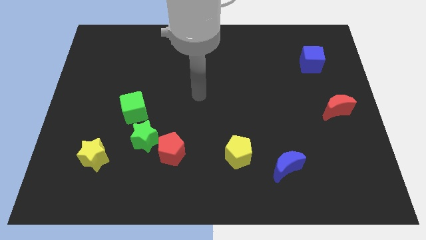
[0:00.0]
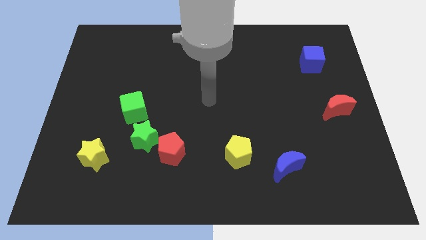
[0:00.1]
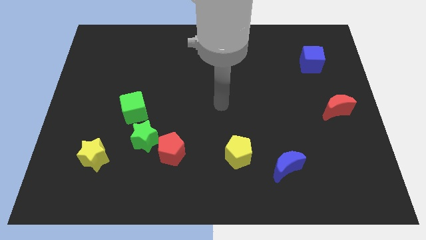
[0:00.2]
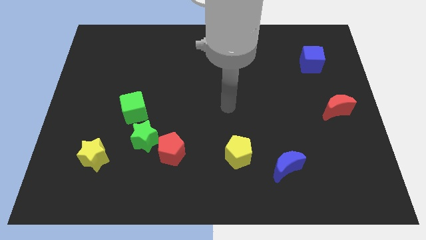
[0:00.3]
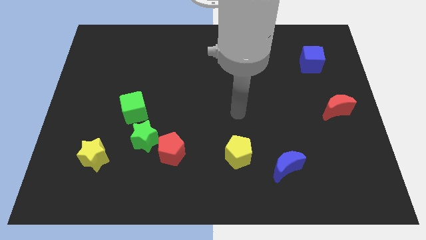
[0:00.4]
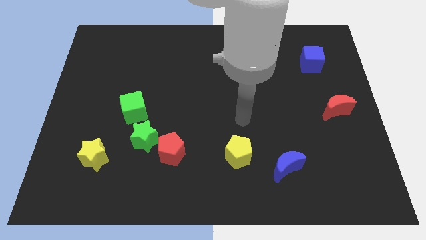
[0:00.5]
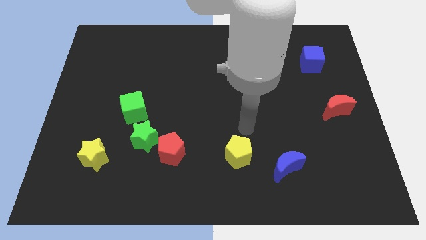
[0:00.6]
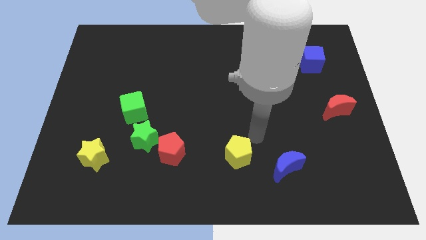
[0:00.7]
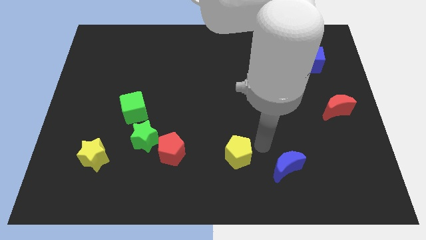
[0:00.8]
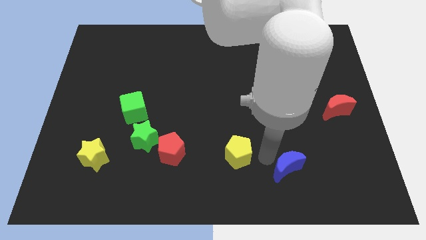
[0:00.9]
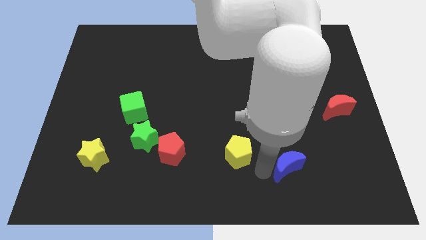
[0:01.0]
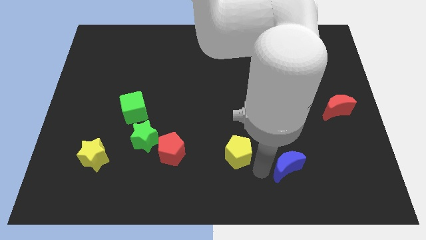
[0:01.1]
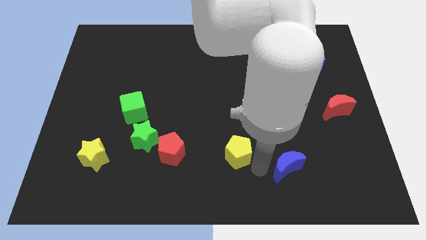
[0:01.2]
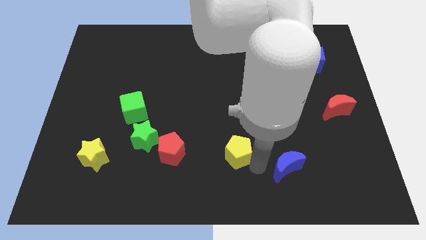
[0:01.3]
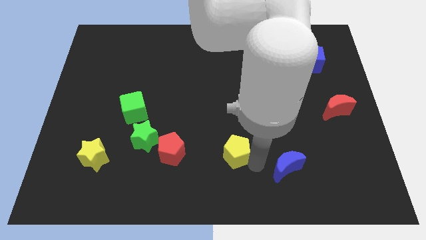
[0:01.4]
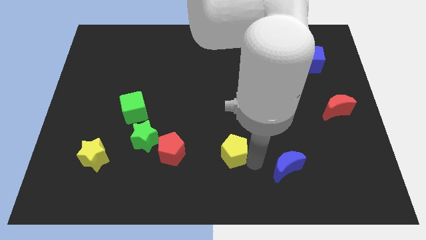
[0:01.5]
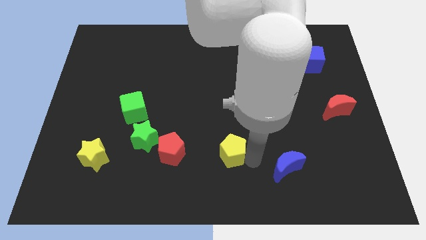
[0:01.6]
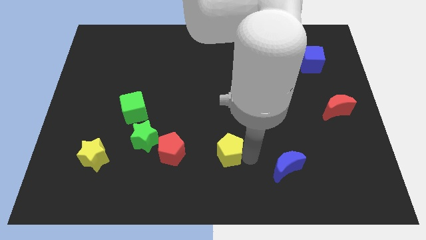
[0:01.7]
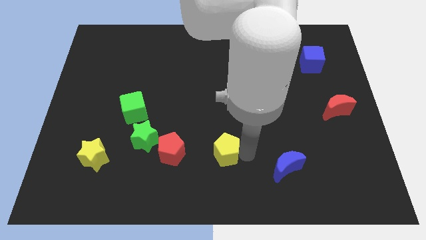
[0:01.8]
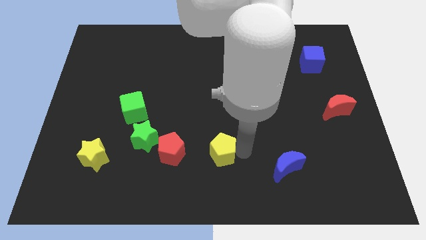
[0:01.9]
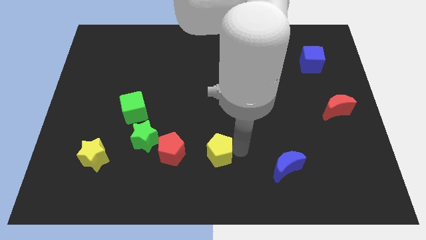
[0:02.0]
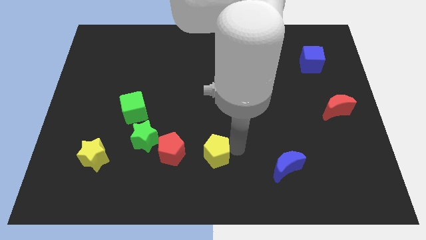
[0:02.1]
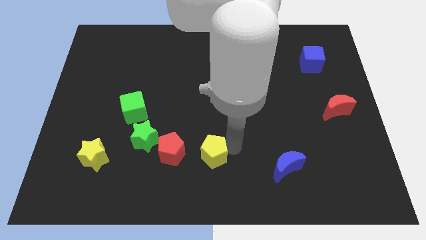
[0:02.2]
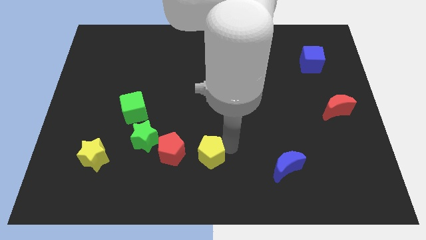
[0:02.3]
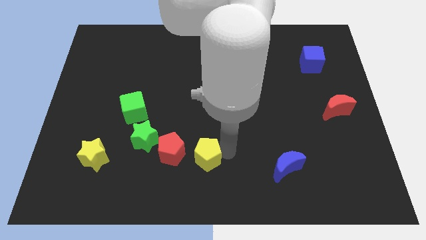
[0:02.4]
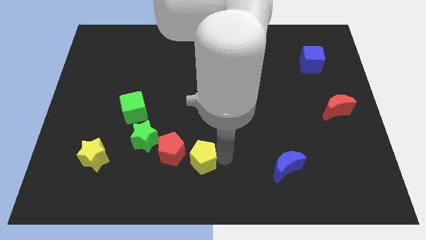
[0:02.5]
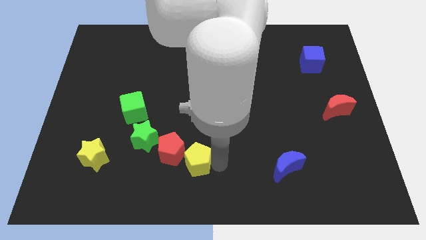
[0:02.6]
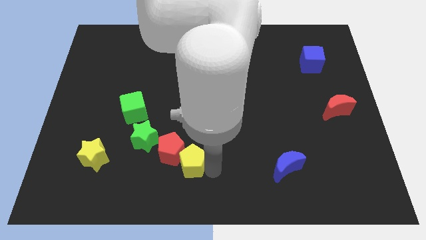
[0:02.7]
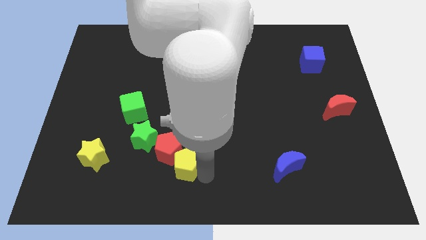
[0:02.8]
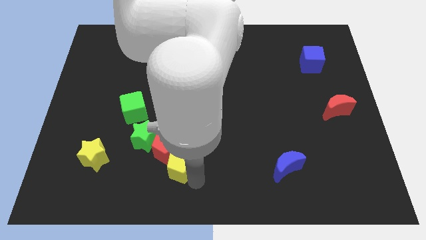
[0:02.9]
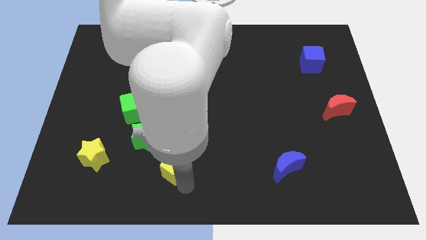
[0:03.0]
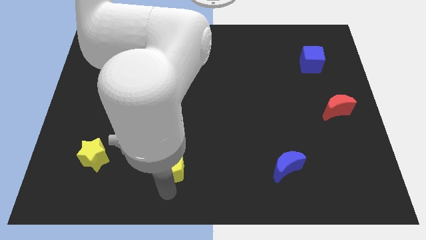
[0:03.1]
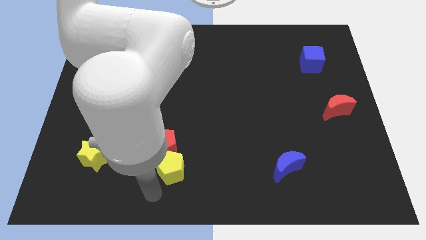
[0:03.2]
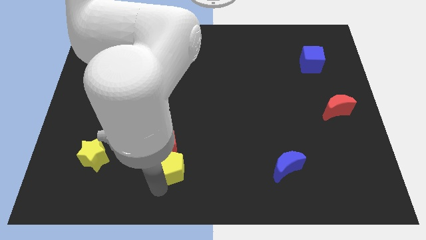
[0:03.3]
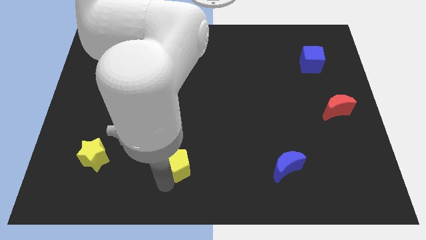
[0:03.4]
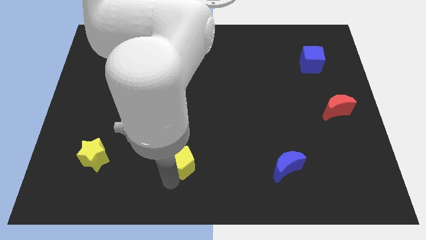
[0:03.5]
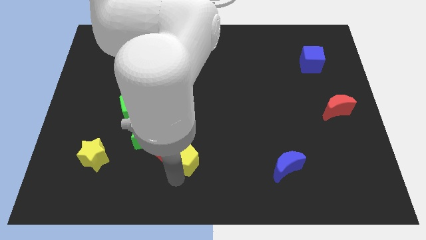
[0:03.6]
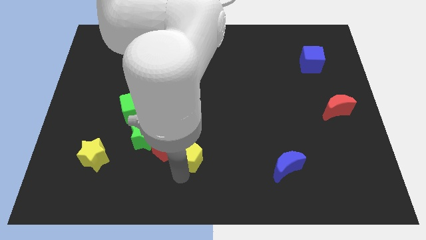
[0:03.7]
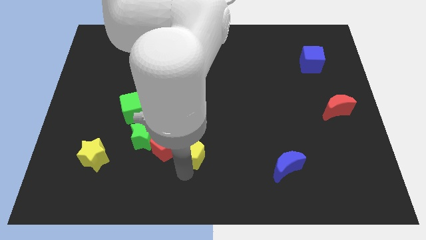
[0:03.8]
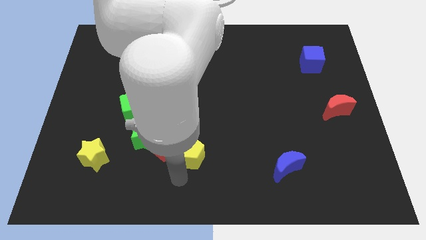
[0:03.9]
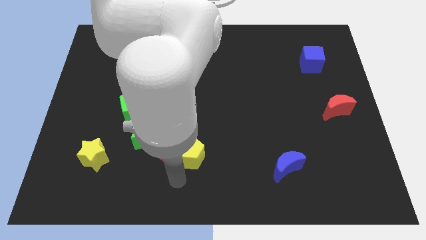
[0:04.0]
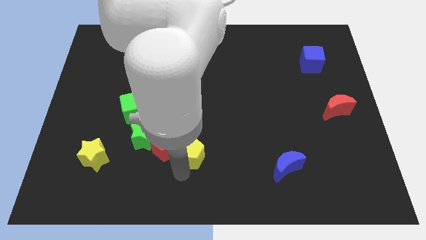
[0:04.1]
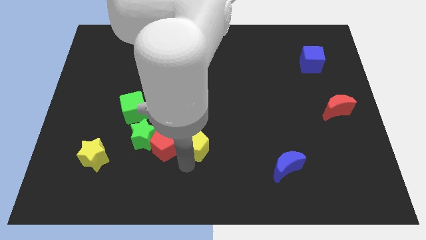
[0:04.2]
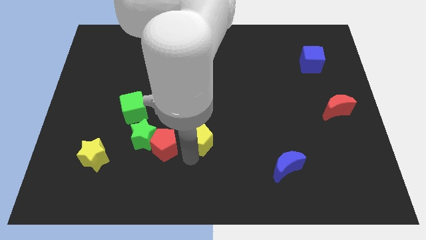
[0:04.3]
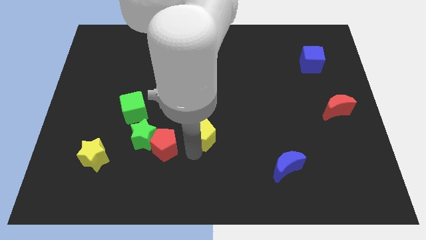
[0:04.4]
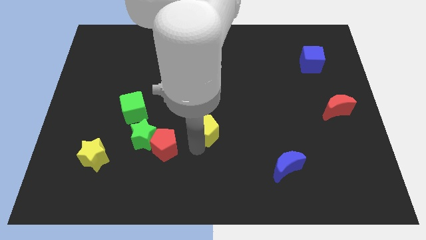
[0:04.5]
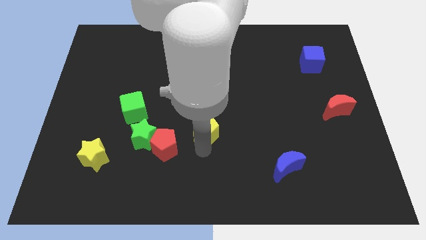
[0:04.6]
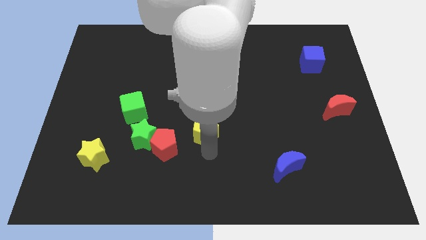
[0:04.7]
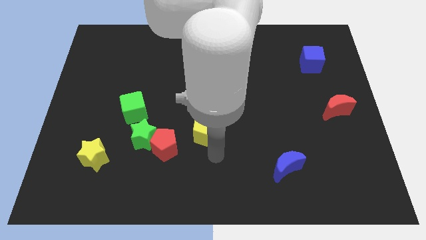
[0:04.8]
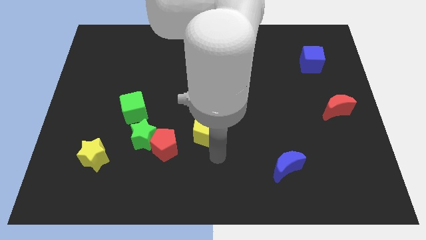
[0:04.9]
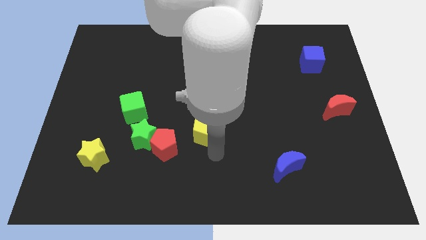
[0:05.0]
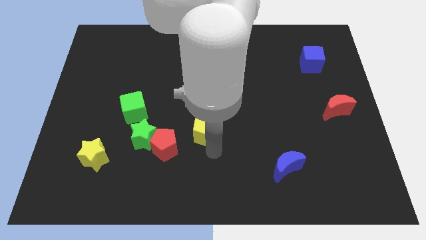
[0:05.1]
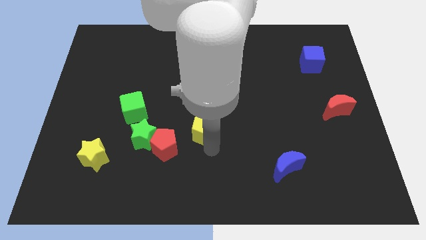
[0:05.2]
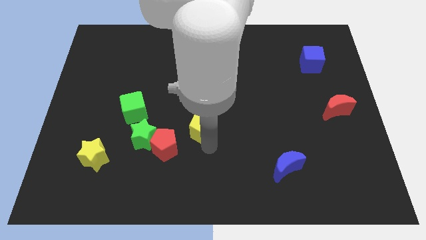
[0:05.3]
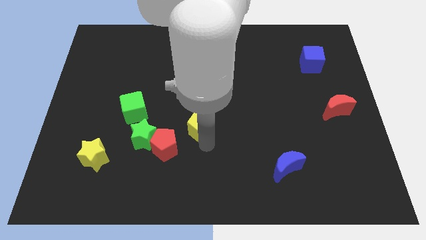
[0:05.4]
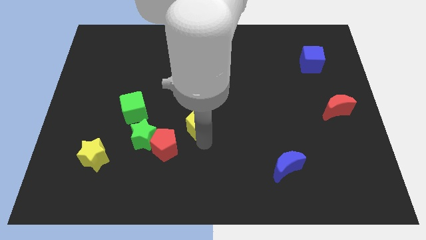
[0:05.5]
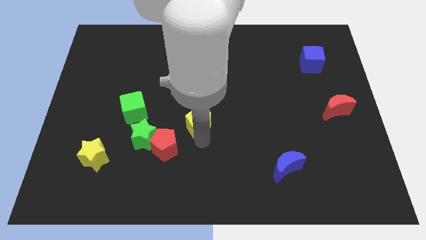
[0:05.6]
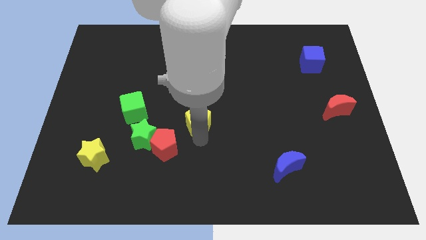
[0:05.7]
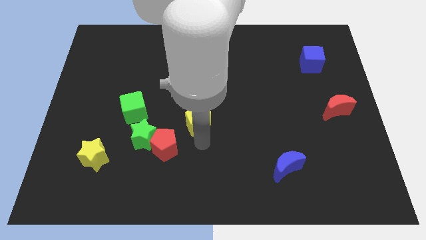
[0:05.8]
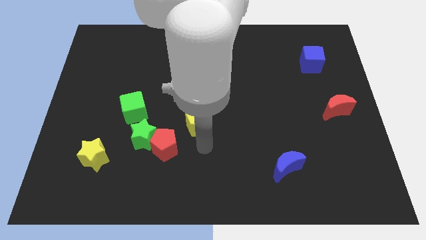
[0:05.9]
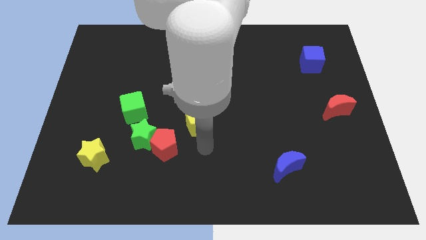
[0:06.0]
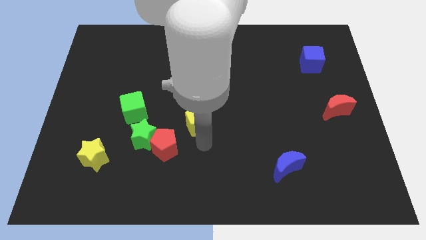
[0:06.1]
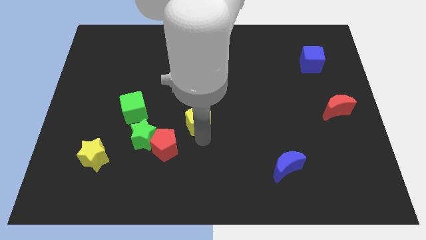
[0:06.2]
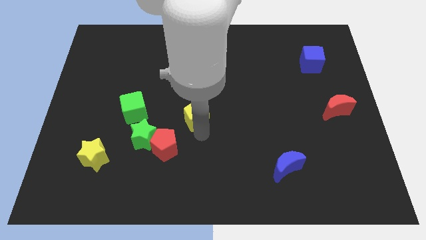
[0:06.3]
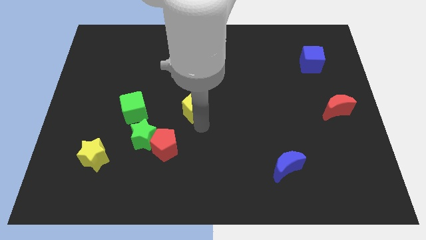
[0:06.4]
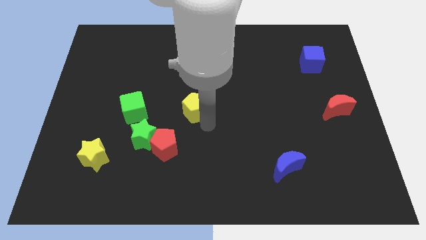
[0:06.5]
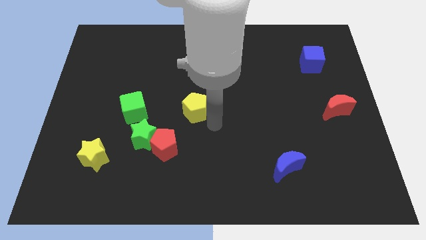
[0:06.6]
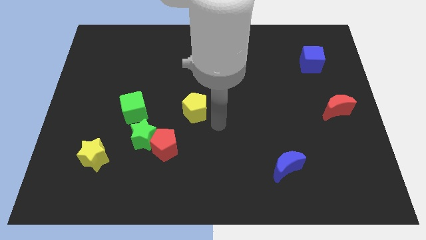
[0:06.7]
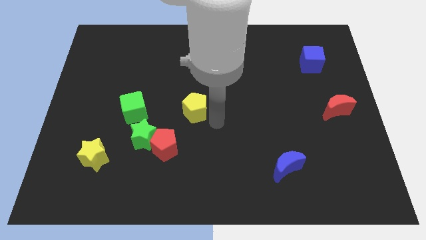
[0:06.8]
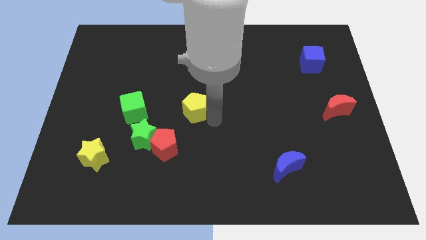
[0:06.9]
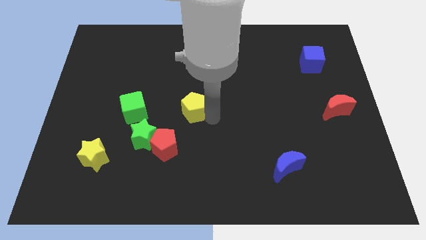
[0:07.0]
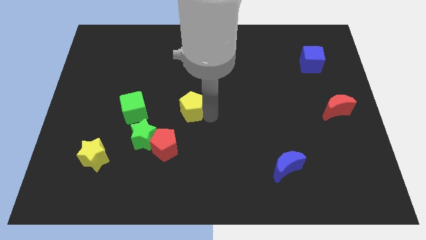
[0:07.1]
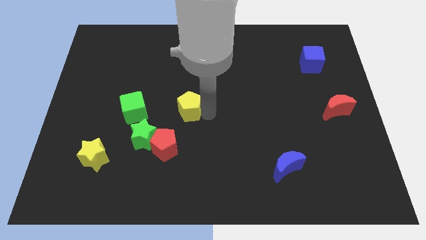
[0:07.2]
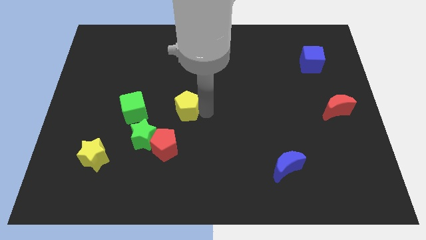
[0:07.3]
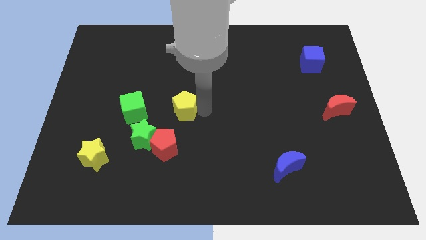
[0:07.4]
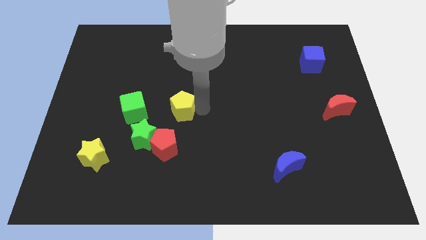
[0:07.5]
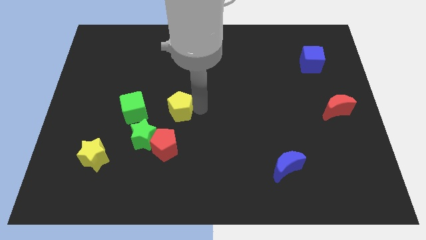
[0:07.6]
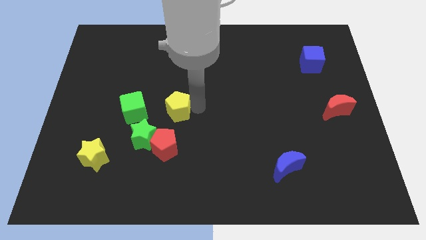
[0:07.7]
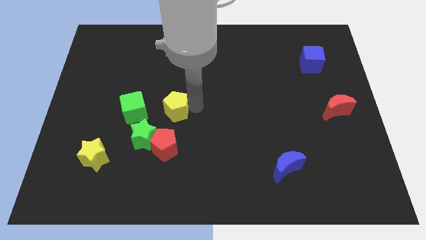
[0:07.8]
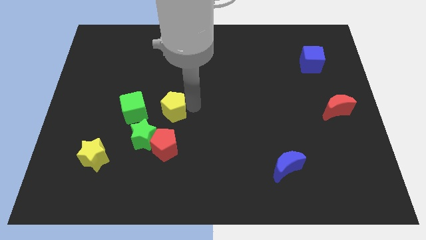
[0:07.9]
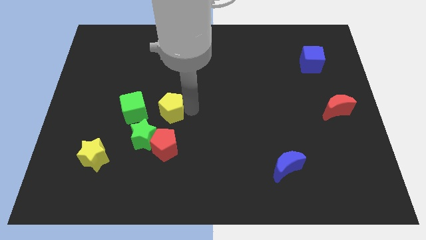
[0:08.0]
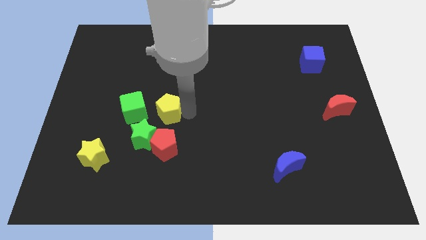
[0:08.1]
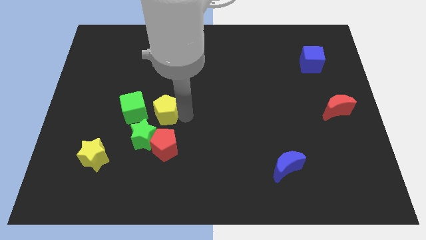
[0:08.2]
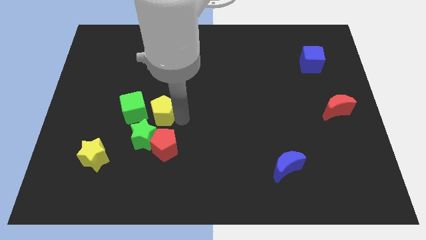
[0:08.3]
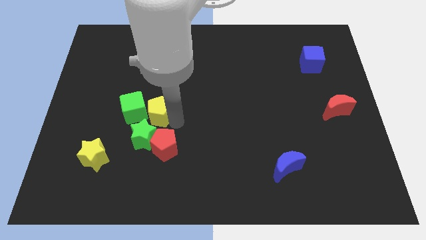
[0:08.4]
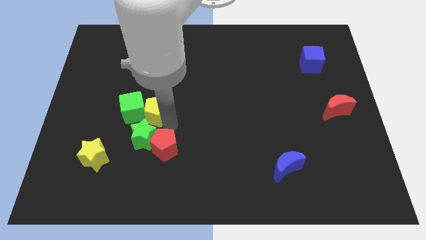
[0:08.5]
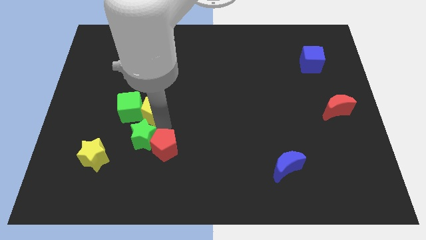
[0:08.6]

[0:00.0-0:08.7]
move the yellow pentagon diagonally up and to the left
